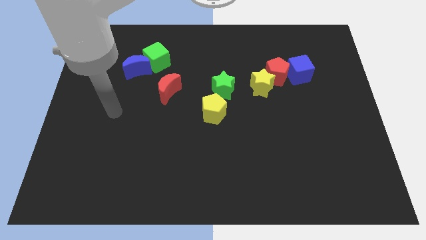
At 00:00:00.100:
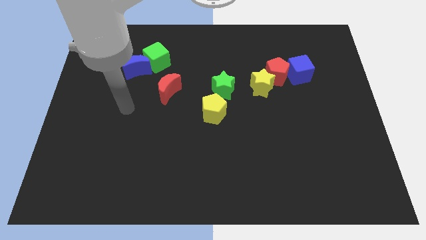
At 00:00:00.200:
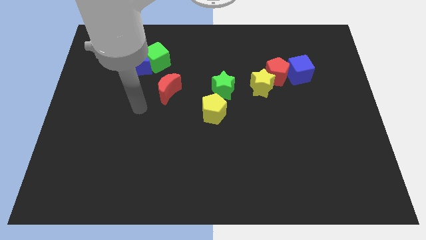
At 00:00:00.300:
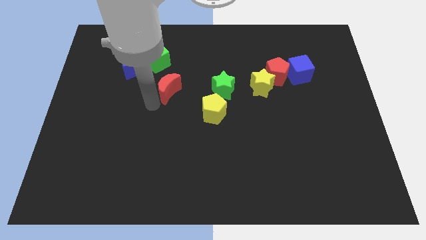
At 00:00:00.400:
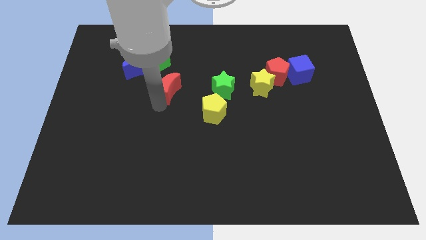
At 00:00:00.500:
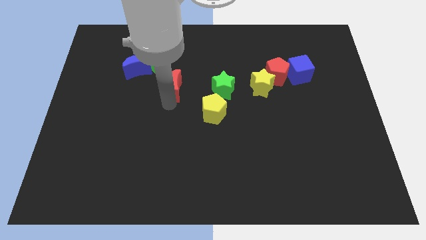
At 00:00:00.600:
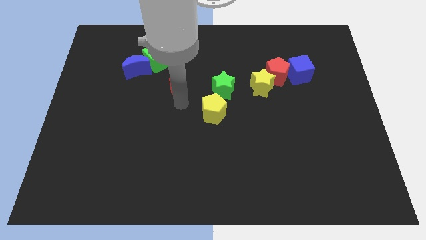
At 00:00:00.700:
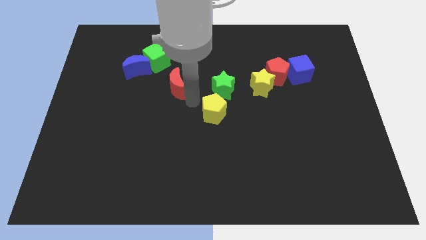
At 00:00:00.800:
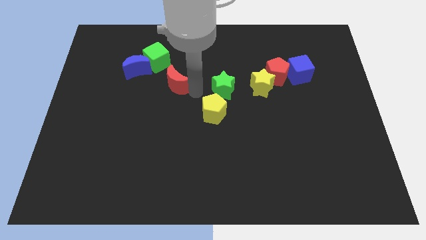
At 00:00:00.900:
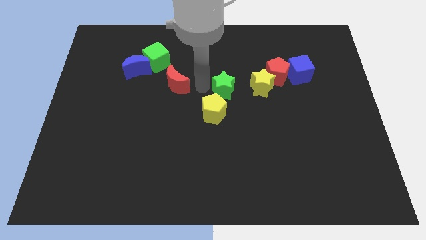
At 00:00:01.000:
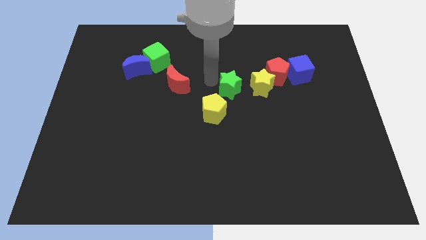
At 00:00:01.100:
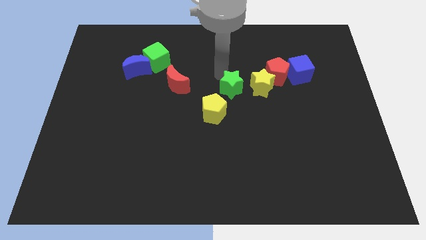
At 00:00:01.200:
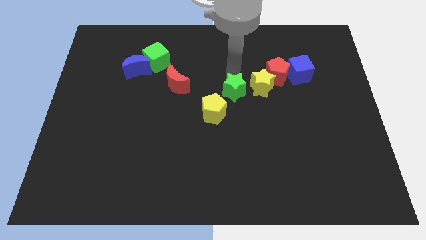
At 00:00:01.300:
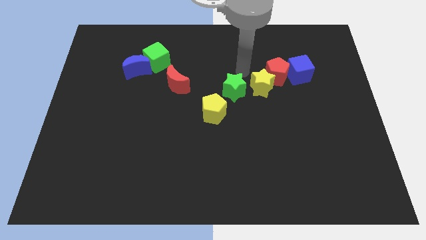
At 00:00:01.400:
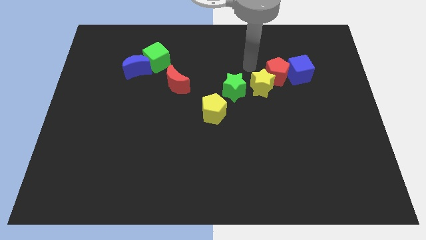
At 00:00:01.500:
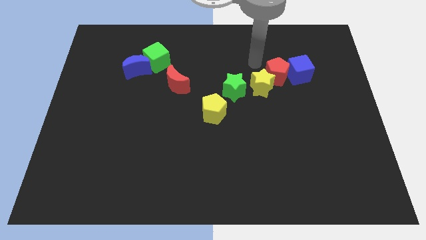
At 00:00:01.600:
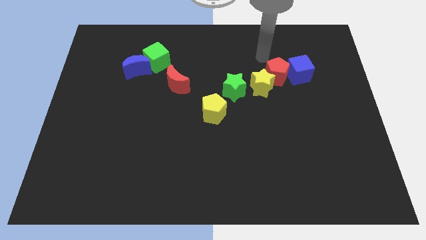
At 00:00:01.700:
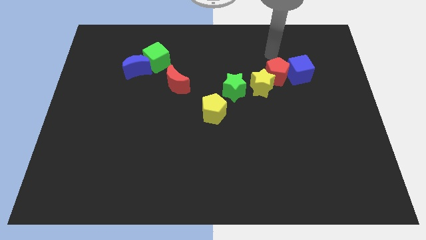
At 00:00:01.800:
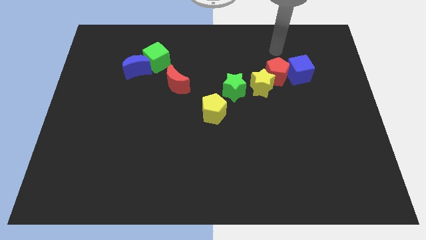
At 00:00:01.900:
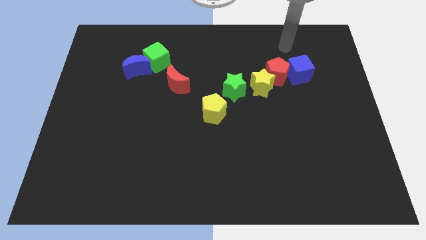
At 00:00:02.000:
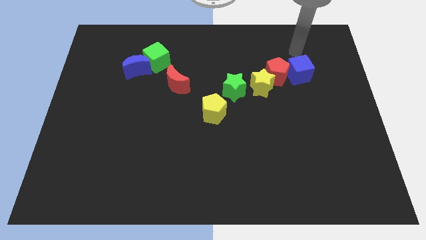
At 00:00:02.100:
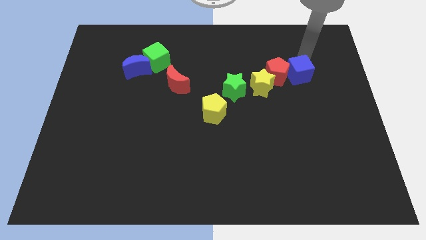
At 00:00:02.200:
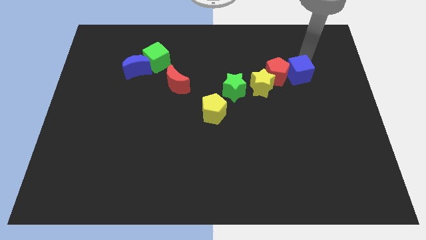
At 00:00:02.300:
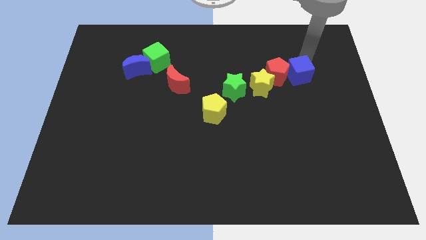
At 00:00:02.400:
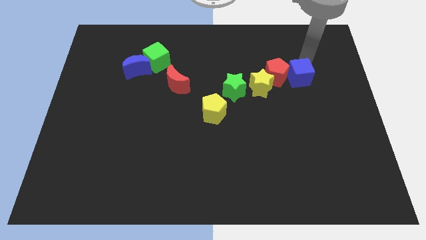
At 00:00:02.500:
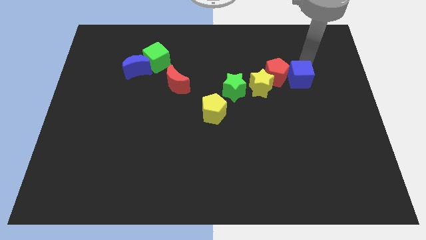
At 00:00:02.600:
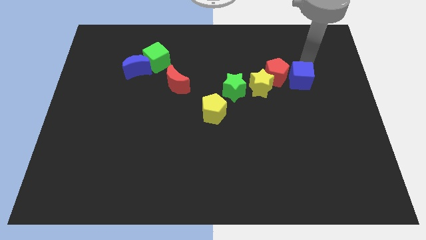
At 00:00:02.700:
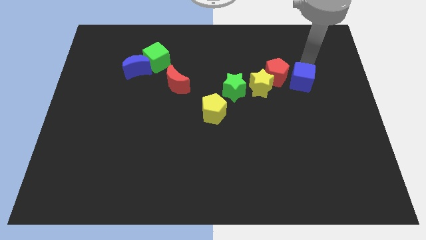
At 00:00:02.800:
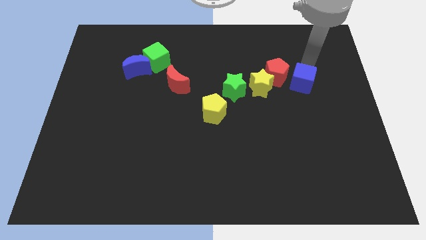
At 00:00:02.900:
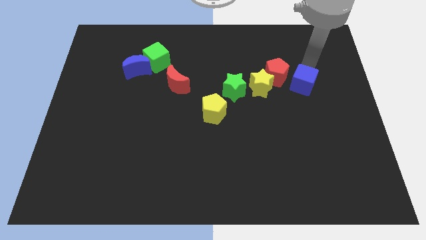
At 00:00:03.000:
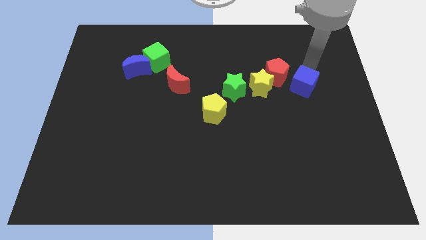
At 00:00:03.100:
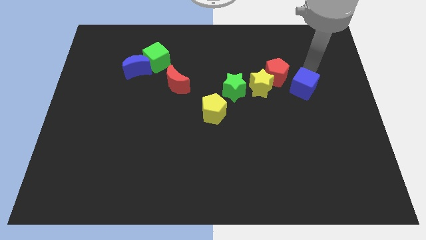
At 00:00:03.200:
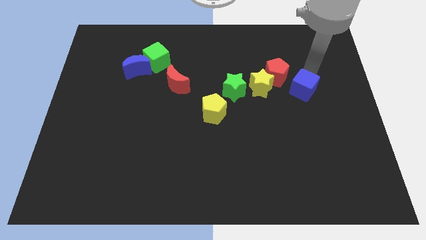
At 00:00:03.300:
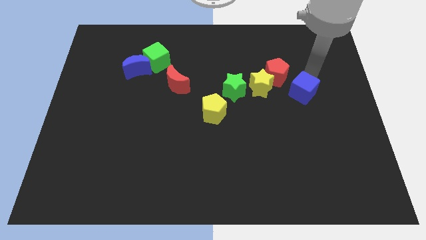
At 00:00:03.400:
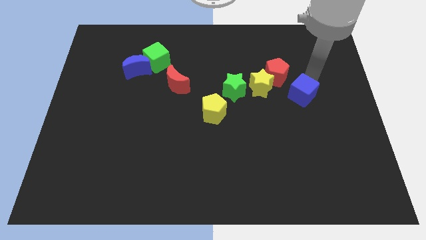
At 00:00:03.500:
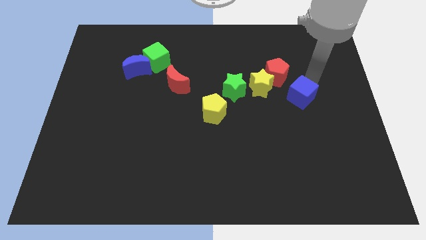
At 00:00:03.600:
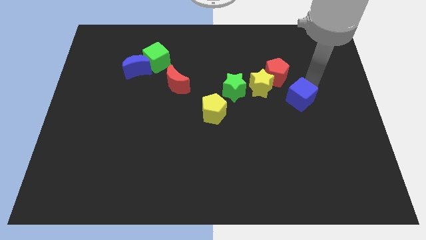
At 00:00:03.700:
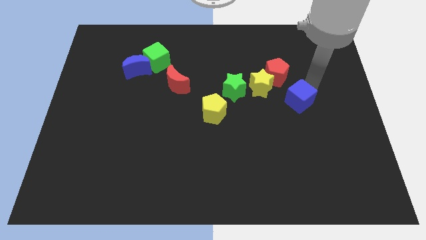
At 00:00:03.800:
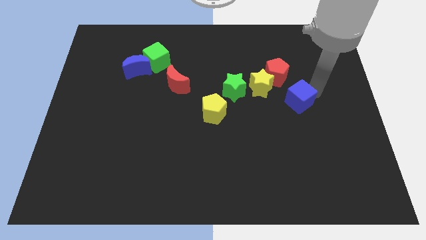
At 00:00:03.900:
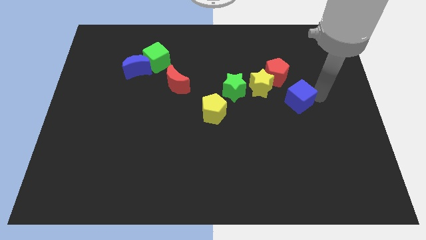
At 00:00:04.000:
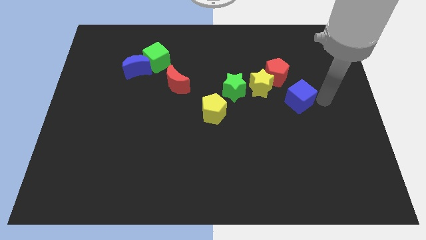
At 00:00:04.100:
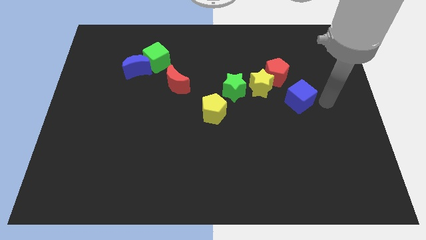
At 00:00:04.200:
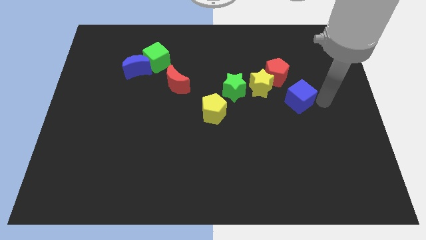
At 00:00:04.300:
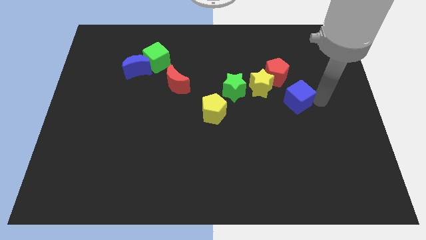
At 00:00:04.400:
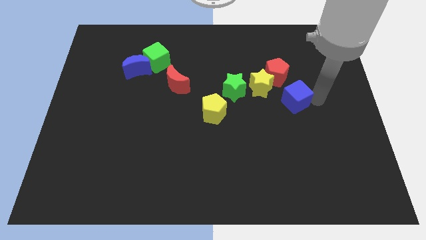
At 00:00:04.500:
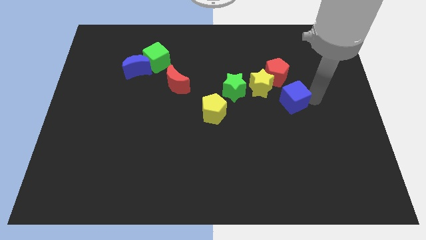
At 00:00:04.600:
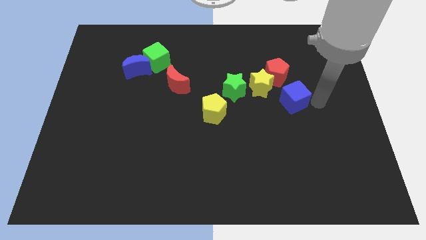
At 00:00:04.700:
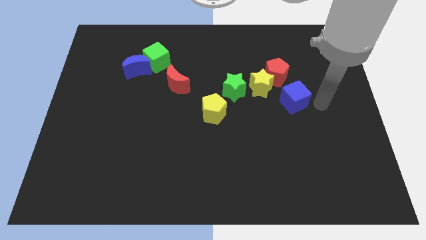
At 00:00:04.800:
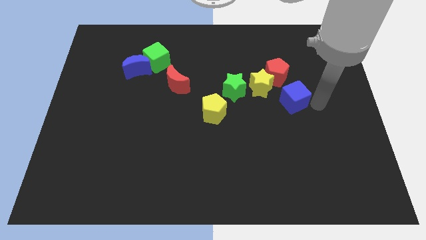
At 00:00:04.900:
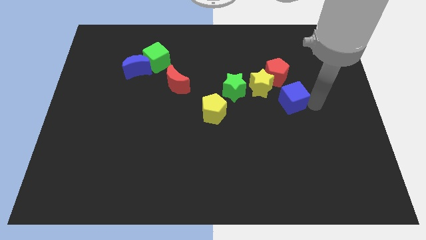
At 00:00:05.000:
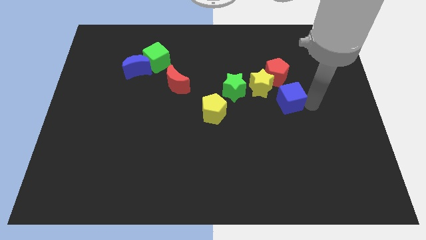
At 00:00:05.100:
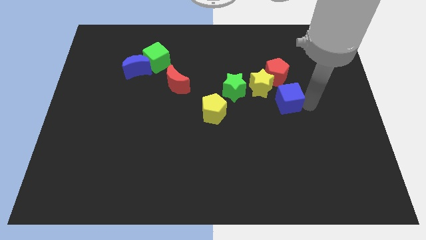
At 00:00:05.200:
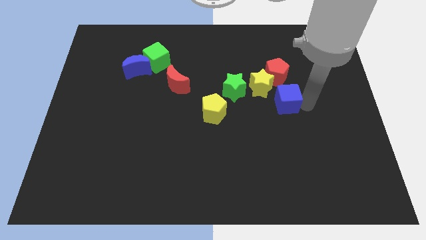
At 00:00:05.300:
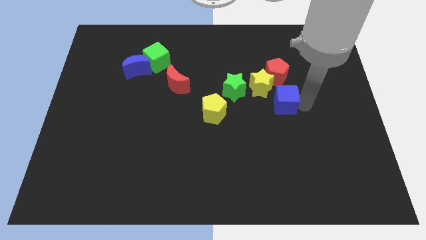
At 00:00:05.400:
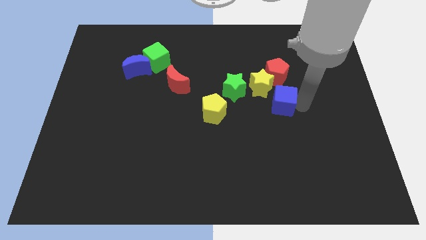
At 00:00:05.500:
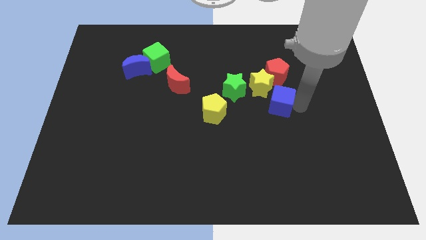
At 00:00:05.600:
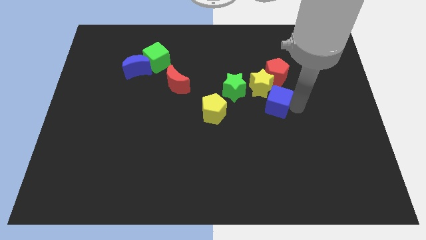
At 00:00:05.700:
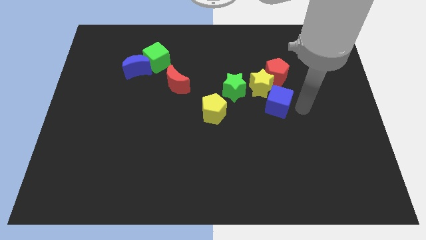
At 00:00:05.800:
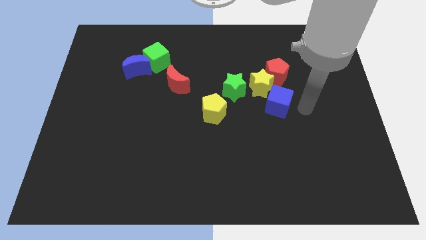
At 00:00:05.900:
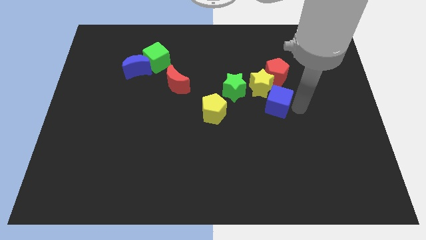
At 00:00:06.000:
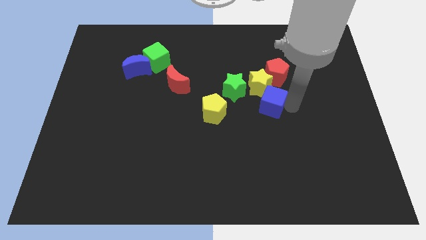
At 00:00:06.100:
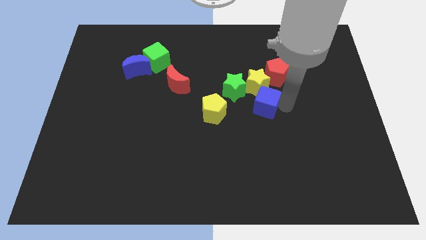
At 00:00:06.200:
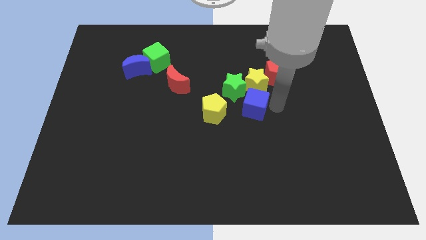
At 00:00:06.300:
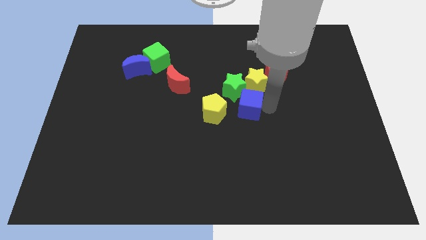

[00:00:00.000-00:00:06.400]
push the blue cube diagonally up and to the right of the yellow pentagon

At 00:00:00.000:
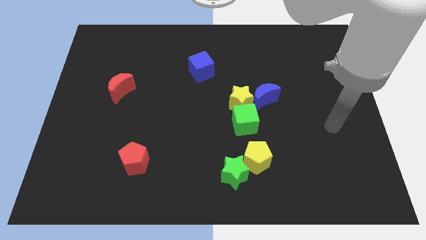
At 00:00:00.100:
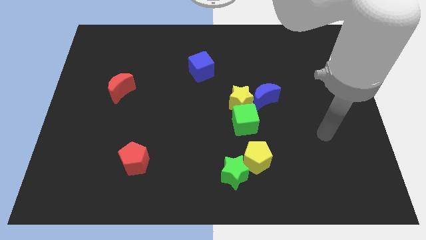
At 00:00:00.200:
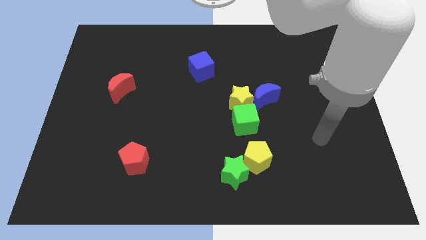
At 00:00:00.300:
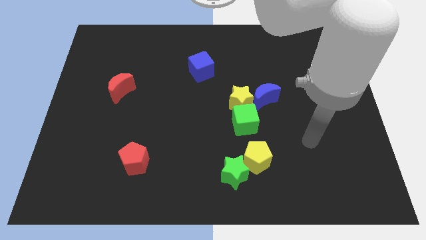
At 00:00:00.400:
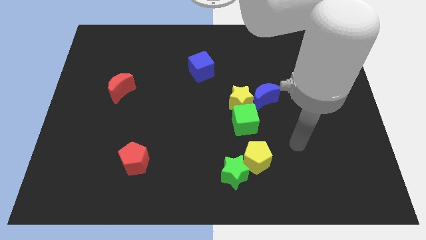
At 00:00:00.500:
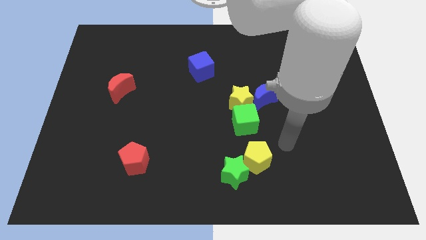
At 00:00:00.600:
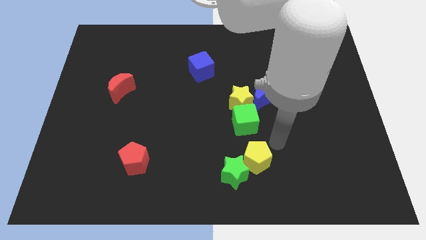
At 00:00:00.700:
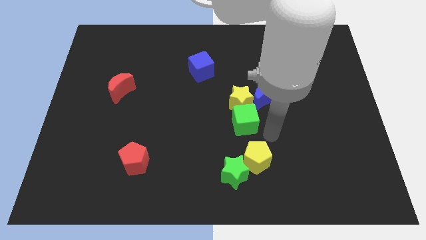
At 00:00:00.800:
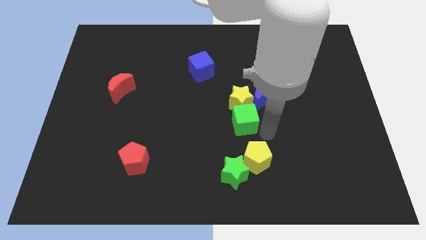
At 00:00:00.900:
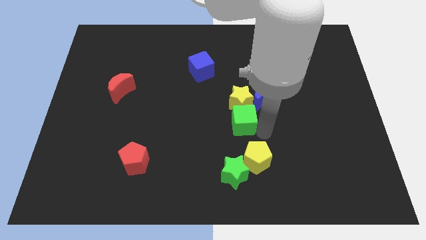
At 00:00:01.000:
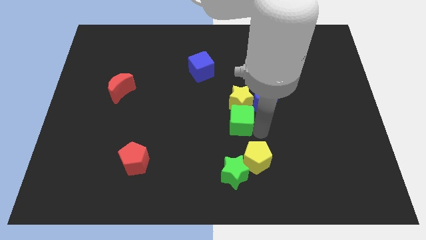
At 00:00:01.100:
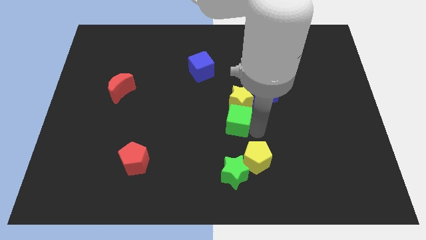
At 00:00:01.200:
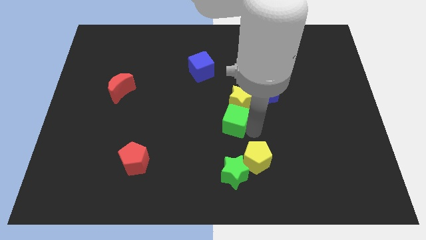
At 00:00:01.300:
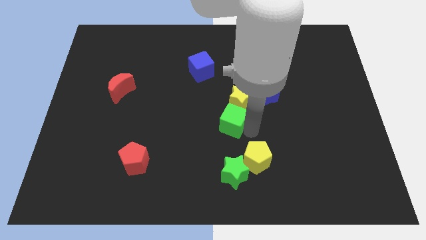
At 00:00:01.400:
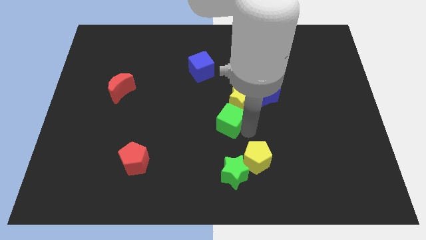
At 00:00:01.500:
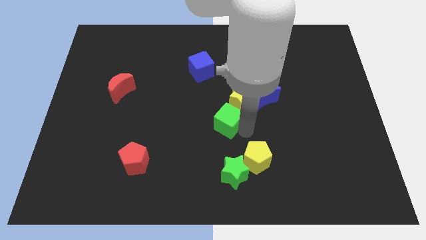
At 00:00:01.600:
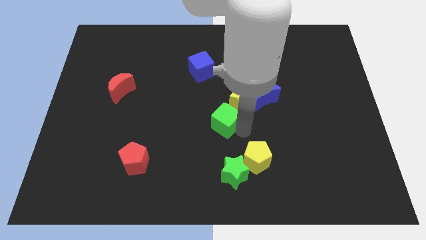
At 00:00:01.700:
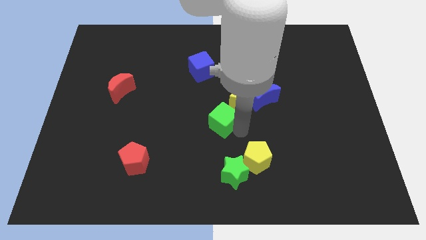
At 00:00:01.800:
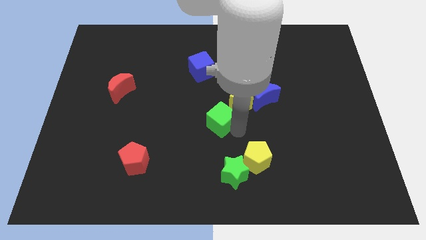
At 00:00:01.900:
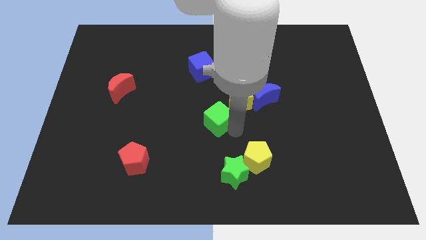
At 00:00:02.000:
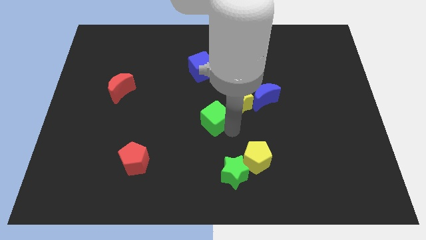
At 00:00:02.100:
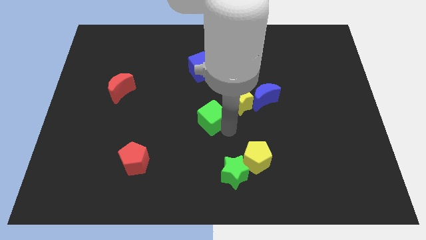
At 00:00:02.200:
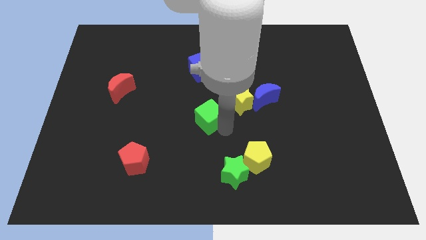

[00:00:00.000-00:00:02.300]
slide the green cube to the bottom of the blue cube
